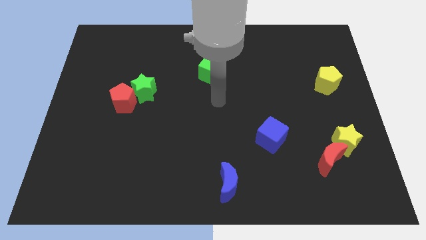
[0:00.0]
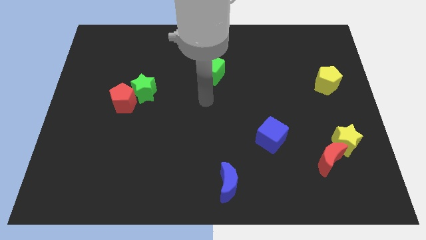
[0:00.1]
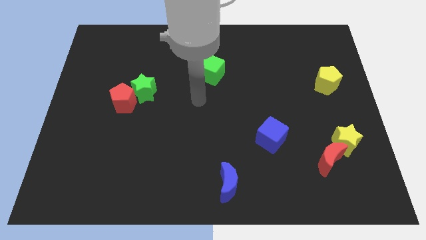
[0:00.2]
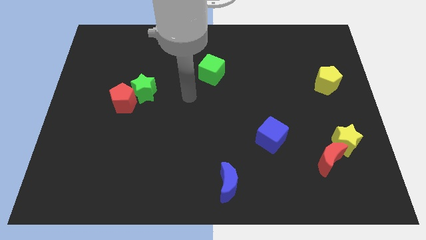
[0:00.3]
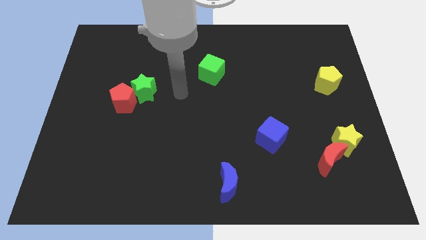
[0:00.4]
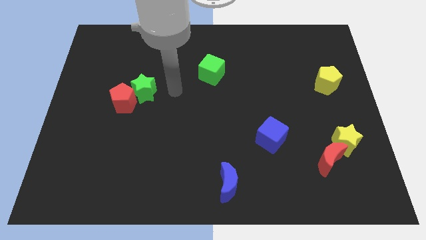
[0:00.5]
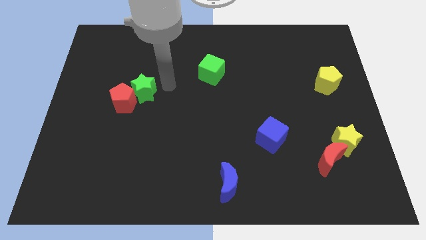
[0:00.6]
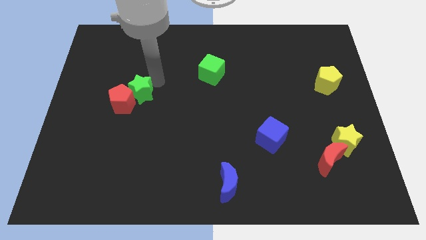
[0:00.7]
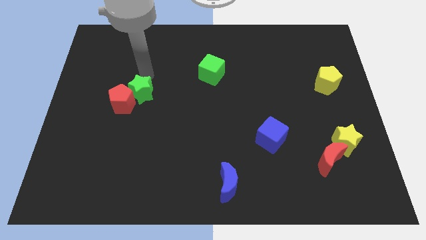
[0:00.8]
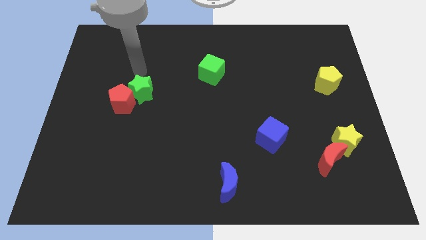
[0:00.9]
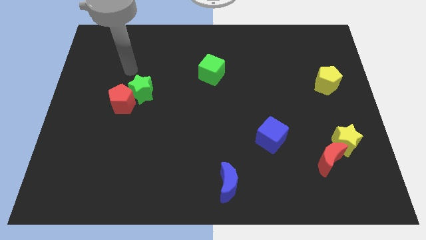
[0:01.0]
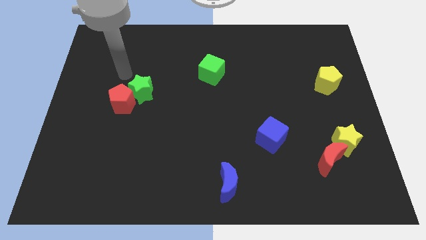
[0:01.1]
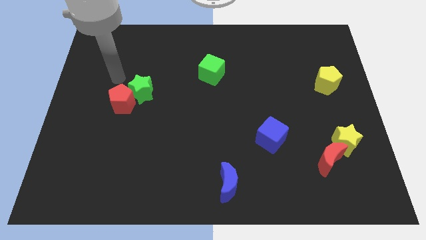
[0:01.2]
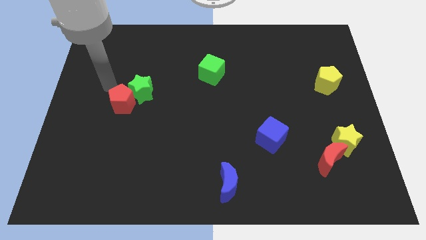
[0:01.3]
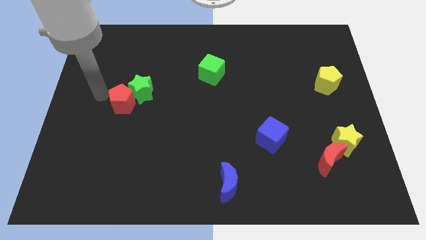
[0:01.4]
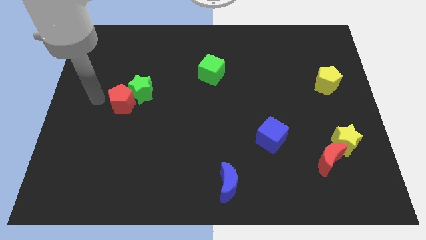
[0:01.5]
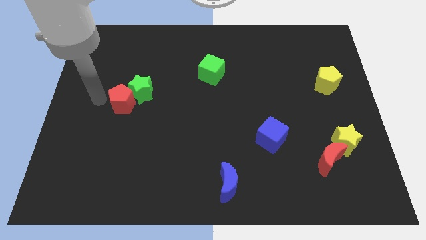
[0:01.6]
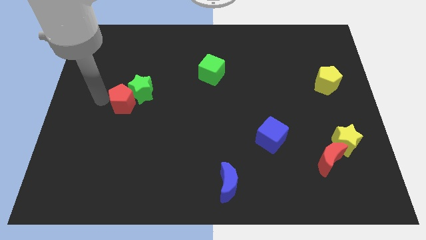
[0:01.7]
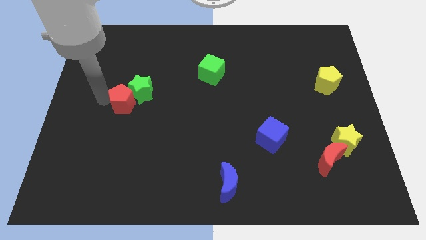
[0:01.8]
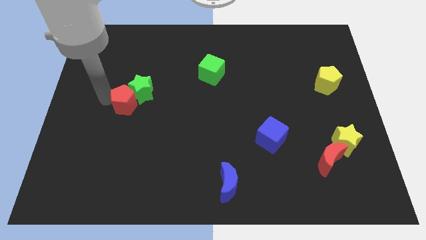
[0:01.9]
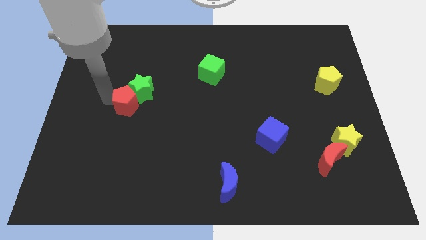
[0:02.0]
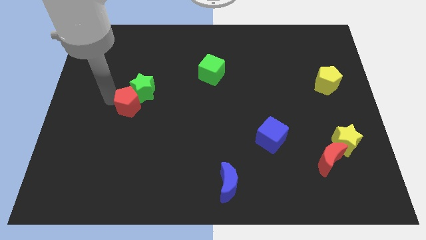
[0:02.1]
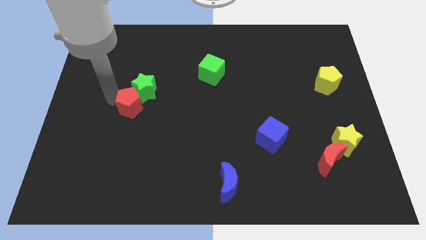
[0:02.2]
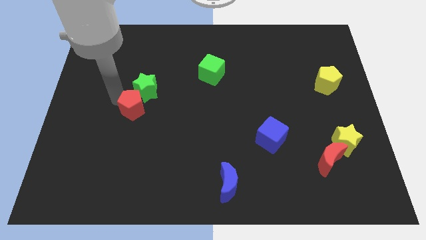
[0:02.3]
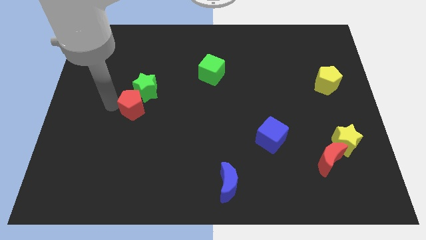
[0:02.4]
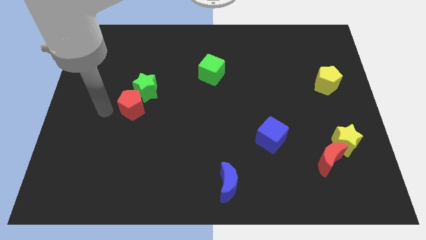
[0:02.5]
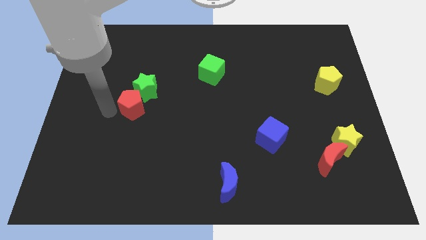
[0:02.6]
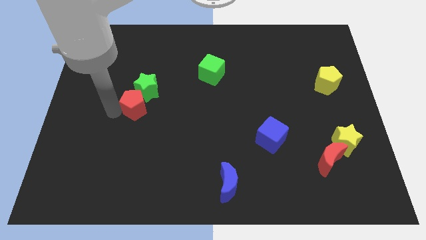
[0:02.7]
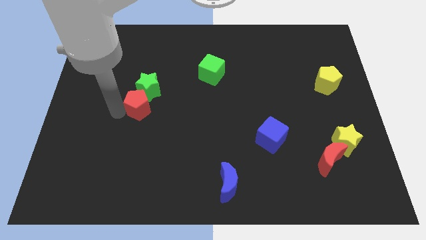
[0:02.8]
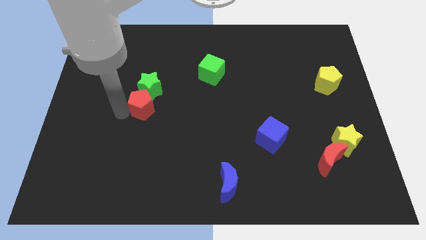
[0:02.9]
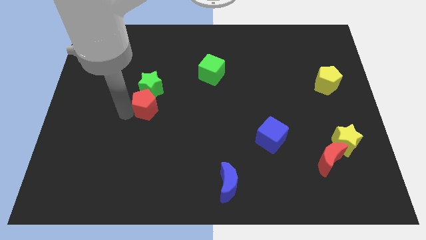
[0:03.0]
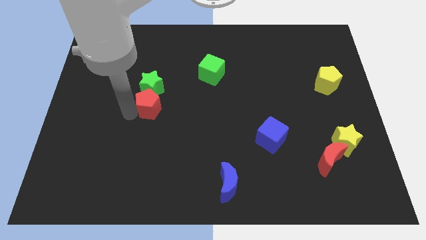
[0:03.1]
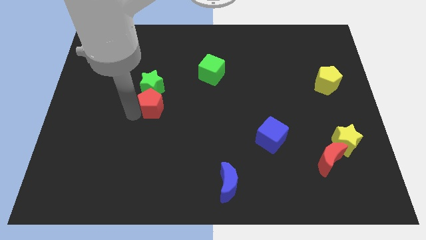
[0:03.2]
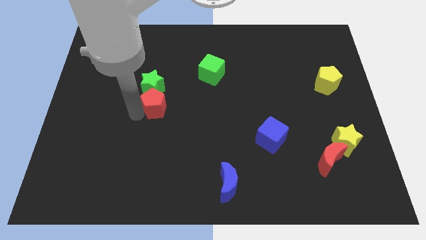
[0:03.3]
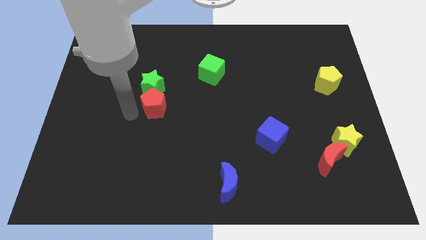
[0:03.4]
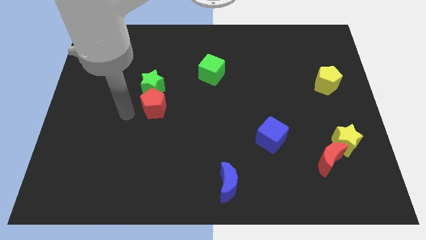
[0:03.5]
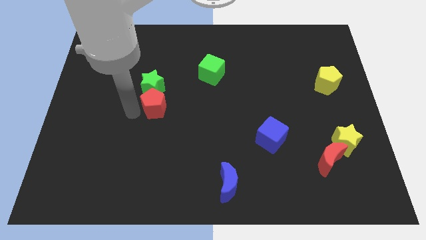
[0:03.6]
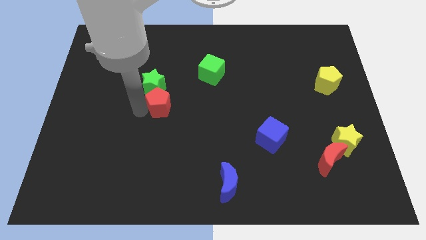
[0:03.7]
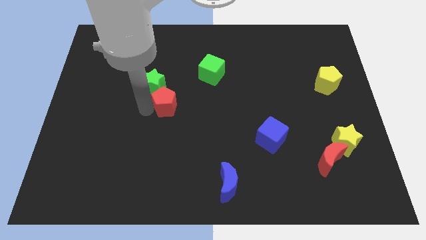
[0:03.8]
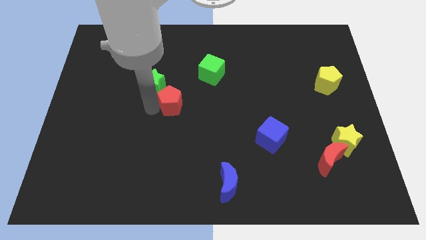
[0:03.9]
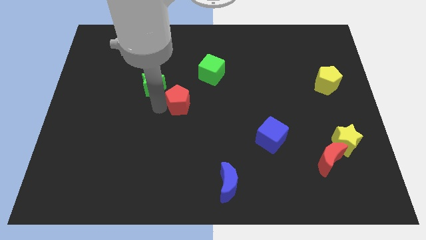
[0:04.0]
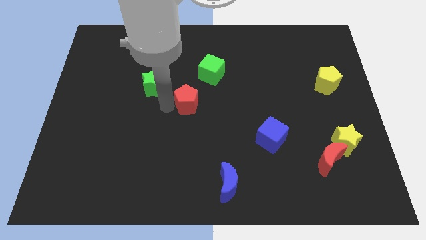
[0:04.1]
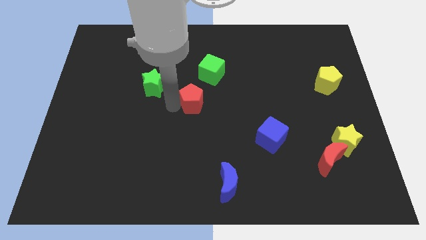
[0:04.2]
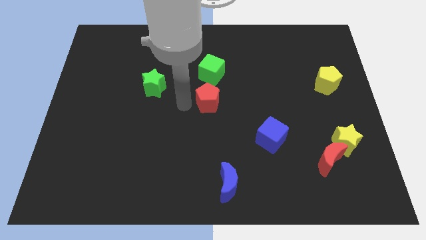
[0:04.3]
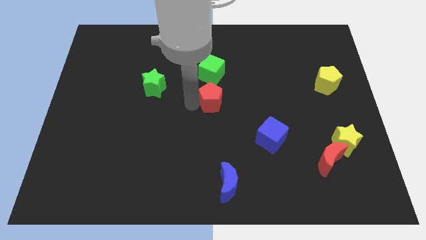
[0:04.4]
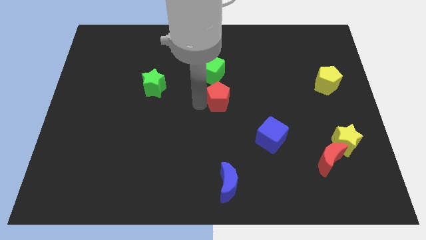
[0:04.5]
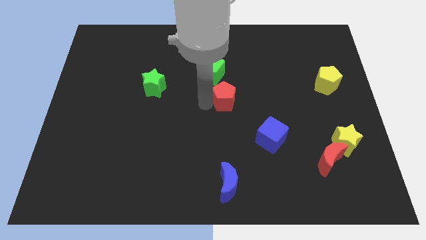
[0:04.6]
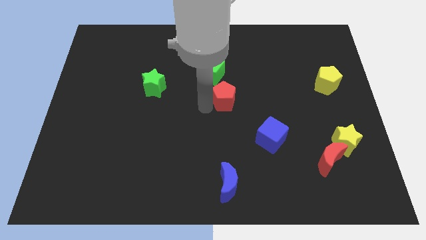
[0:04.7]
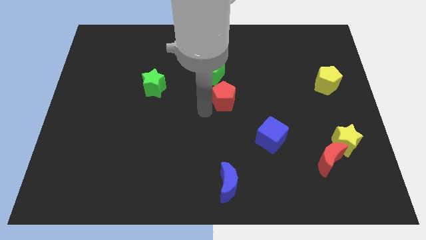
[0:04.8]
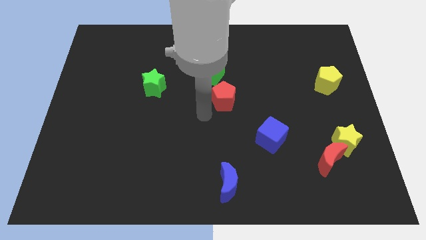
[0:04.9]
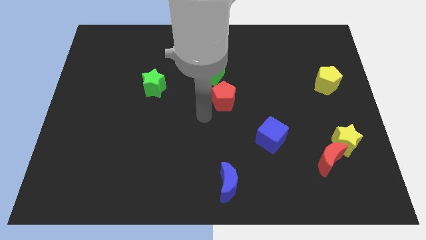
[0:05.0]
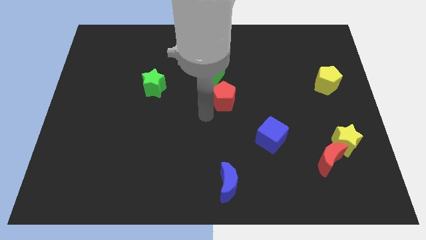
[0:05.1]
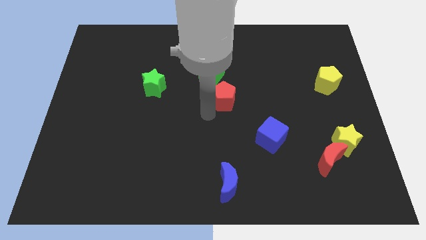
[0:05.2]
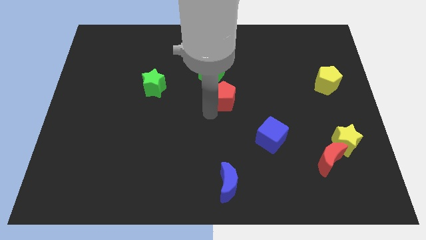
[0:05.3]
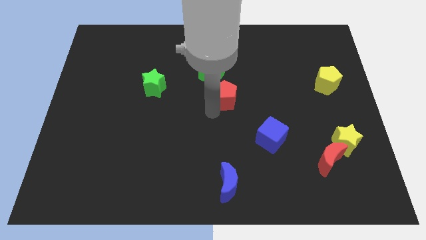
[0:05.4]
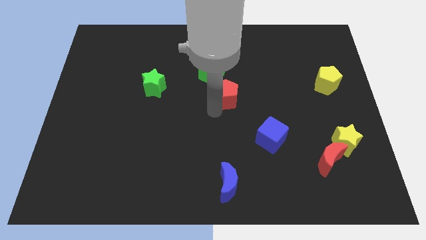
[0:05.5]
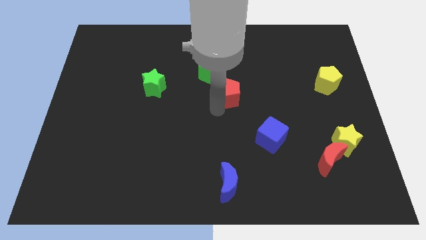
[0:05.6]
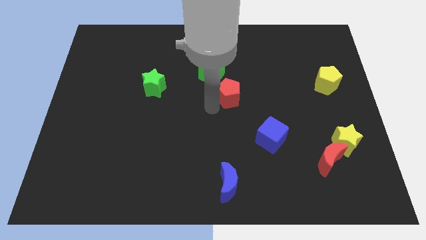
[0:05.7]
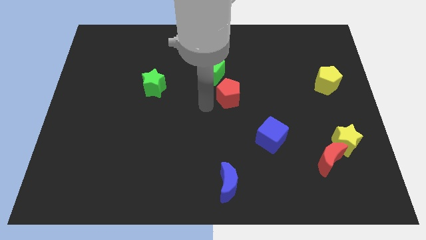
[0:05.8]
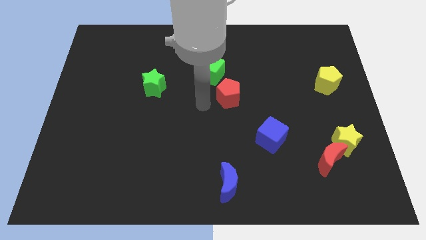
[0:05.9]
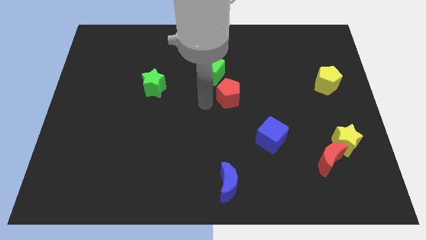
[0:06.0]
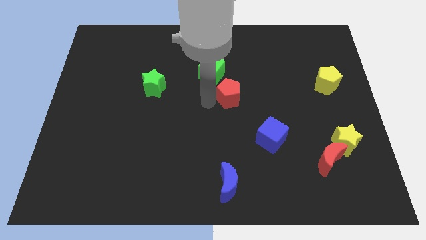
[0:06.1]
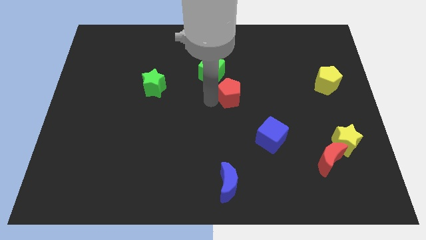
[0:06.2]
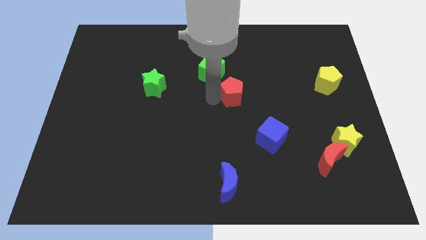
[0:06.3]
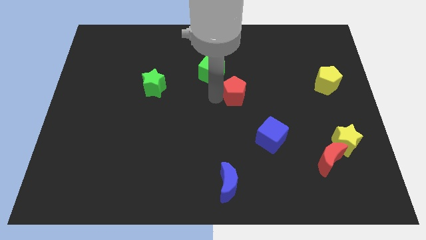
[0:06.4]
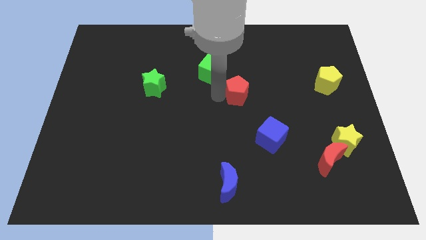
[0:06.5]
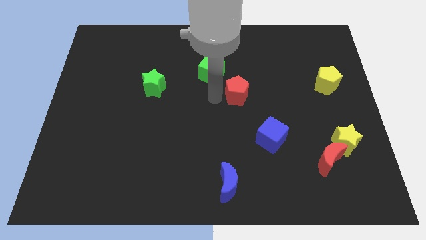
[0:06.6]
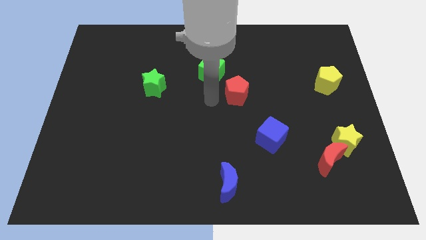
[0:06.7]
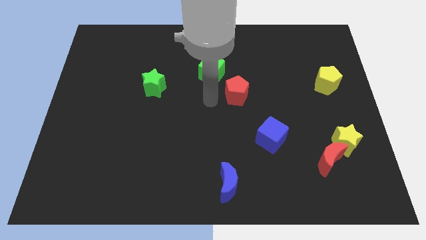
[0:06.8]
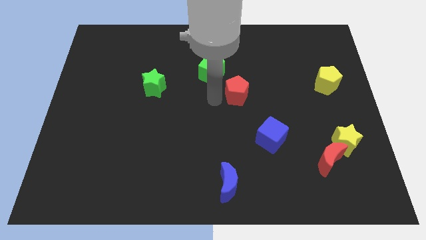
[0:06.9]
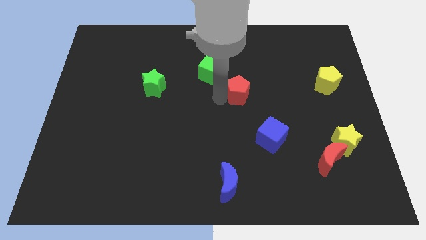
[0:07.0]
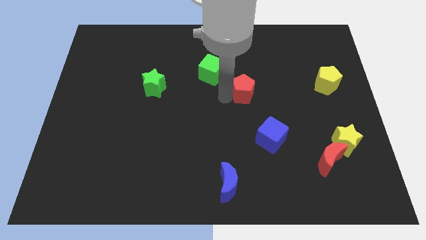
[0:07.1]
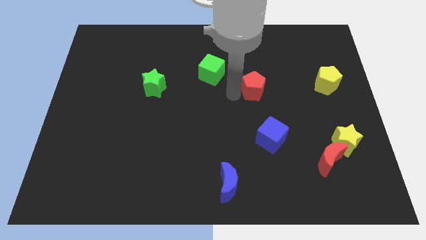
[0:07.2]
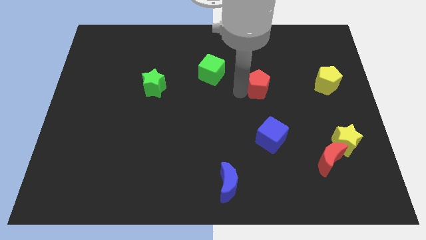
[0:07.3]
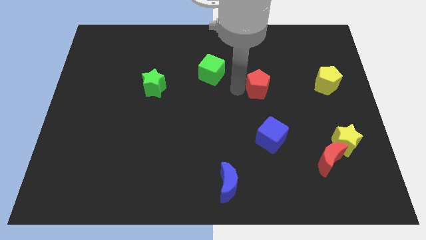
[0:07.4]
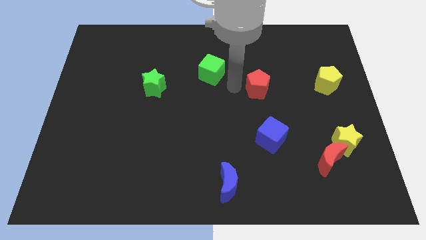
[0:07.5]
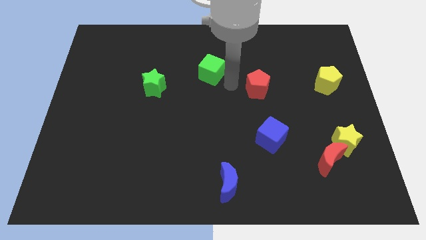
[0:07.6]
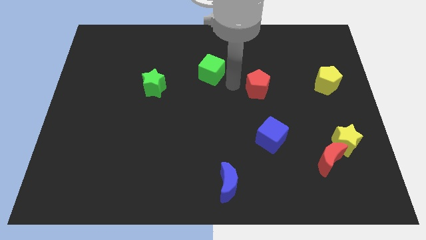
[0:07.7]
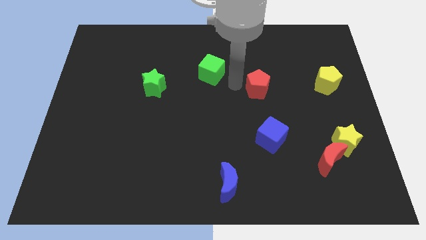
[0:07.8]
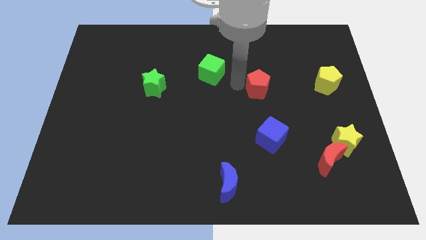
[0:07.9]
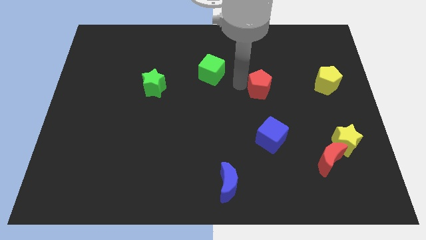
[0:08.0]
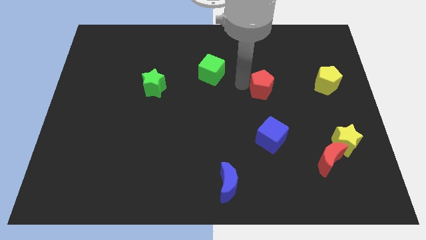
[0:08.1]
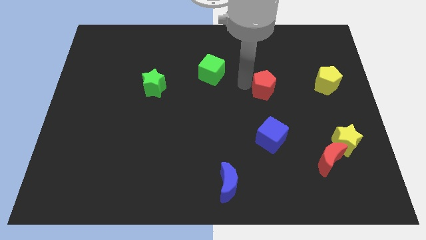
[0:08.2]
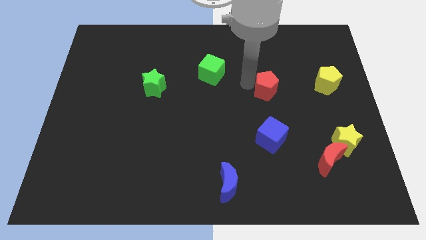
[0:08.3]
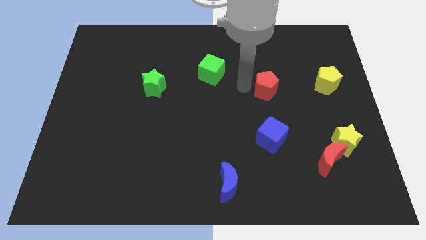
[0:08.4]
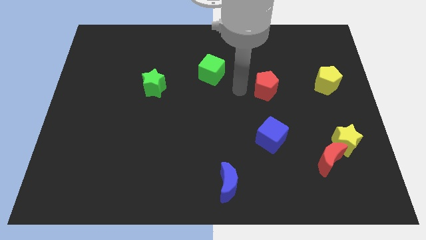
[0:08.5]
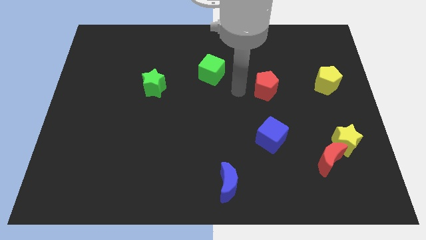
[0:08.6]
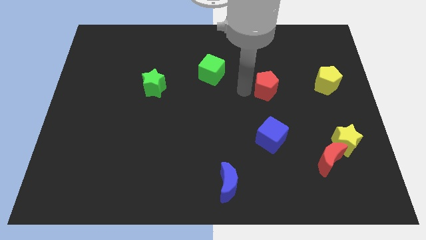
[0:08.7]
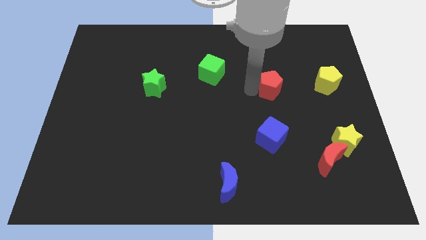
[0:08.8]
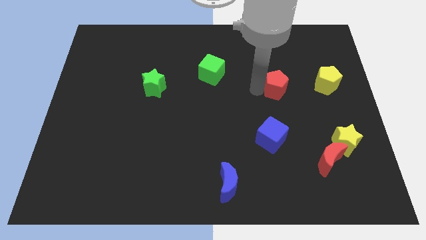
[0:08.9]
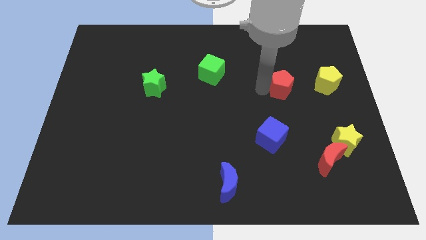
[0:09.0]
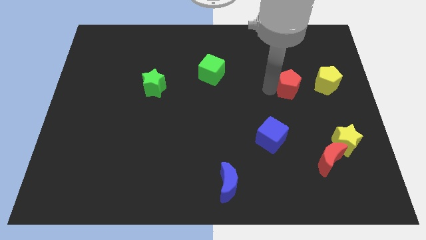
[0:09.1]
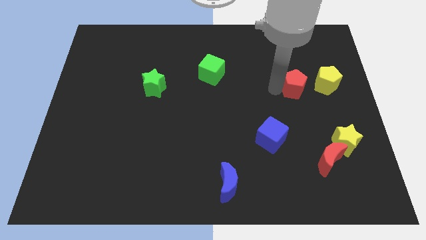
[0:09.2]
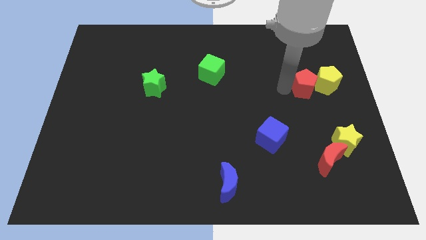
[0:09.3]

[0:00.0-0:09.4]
push the red pentagon towards the yellow pentagon
